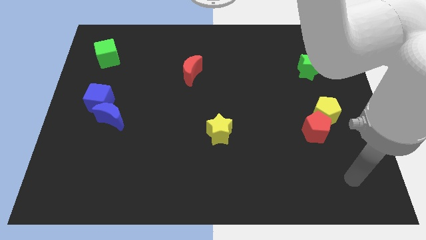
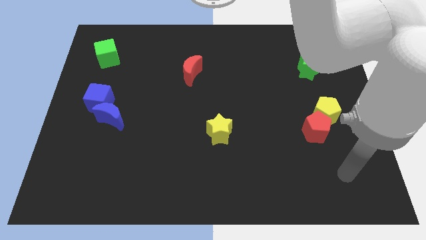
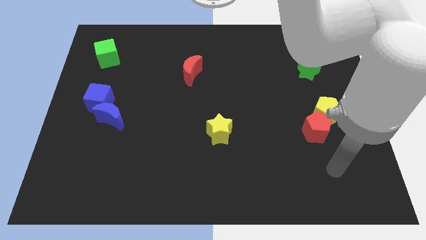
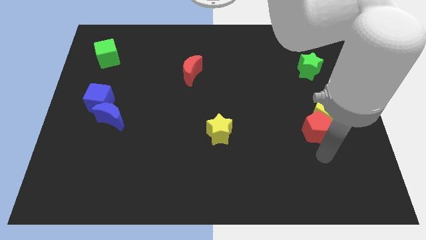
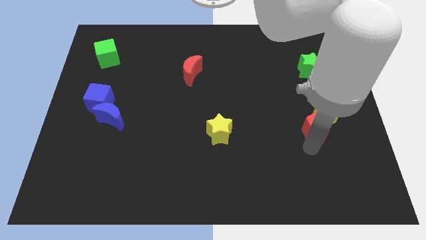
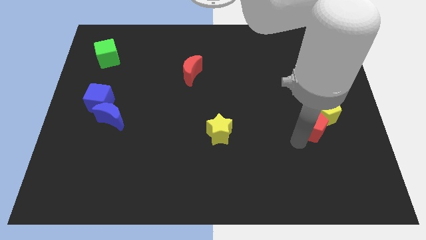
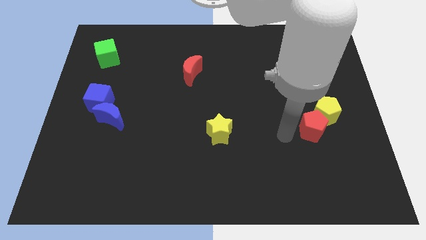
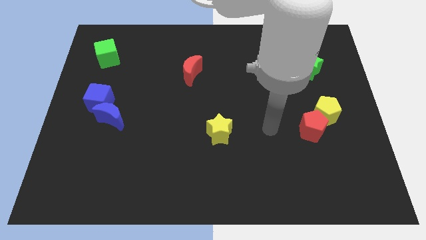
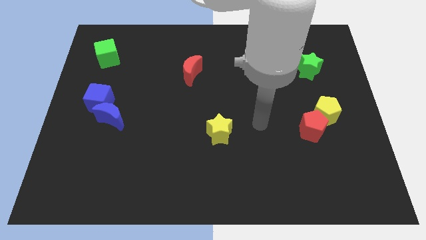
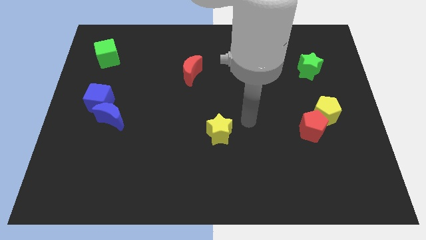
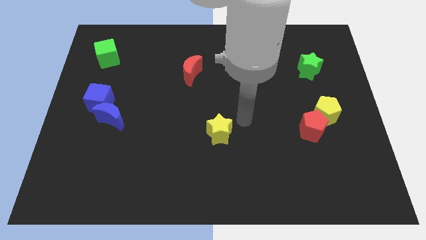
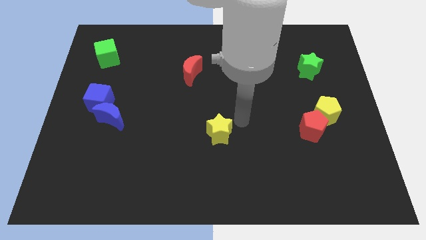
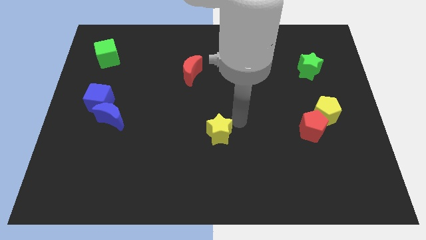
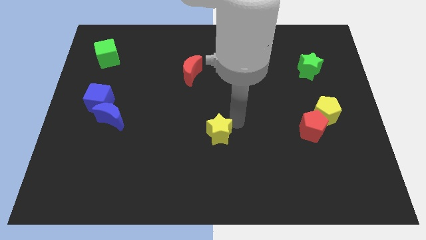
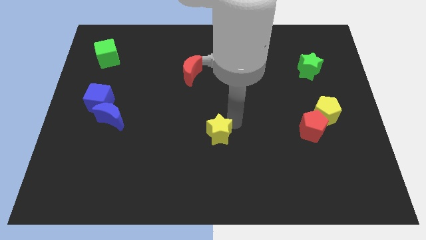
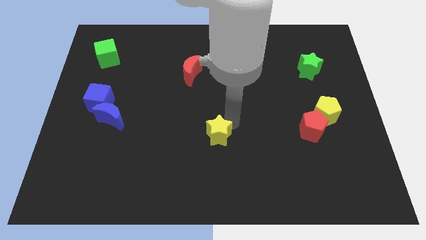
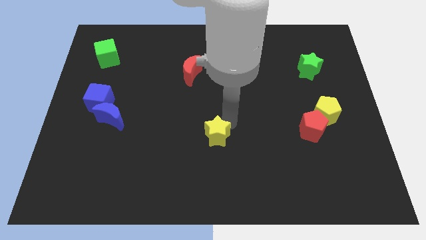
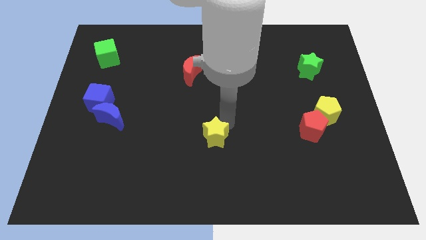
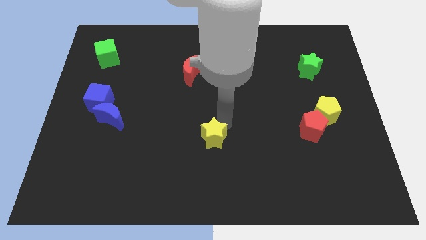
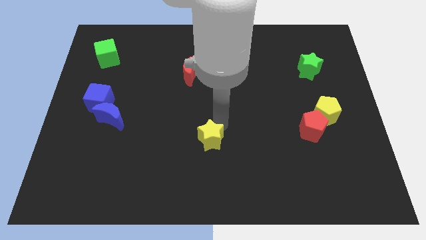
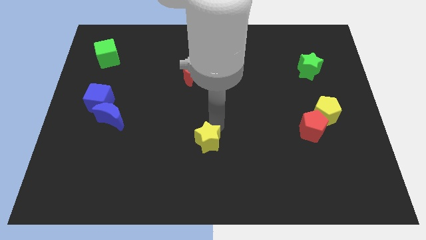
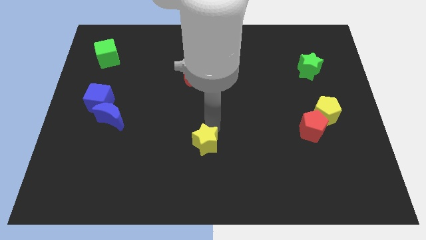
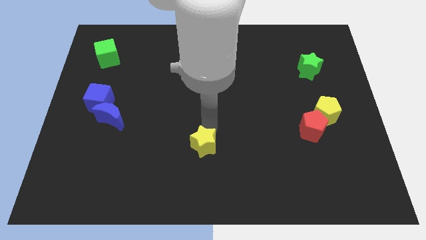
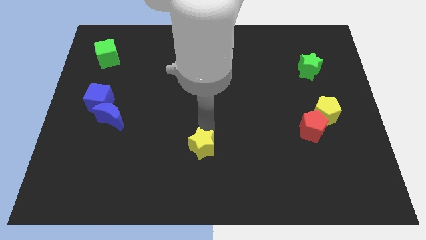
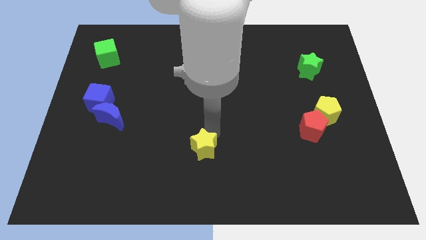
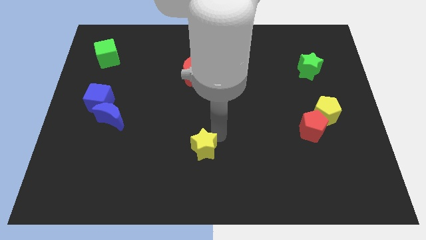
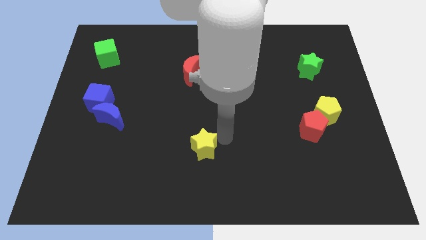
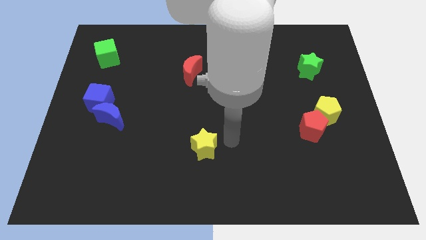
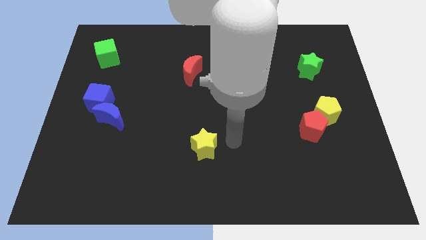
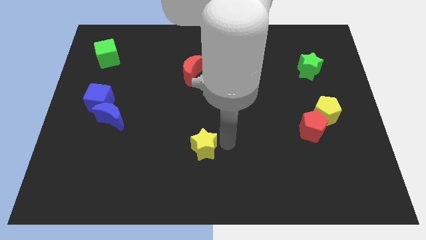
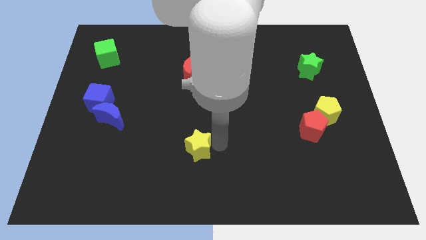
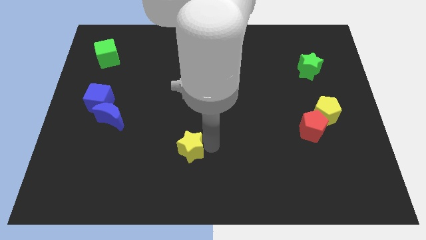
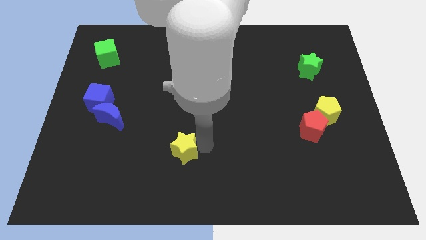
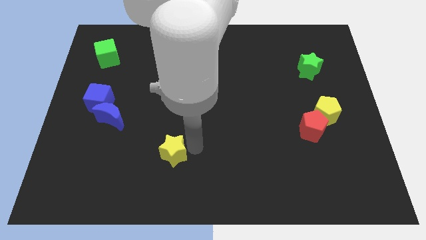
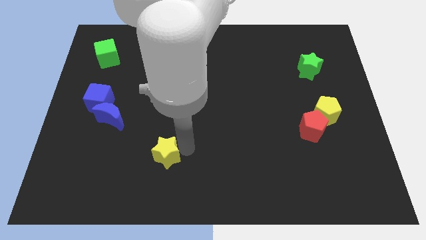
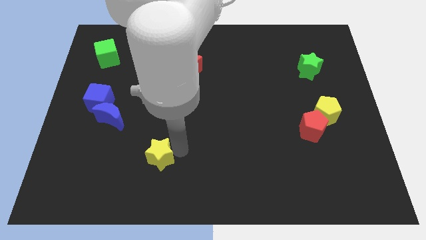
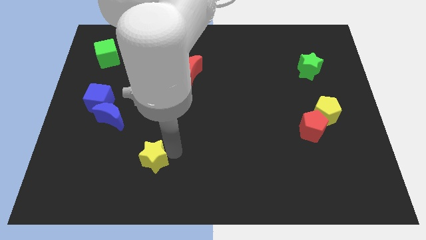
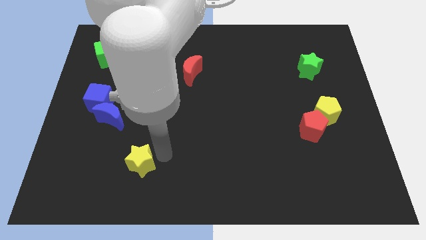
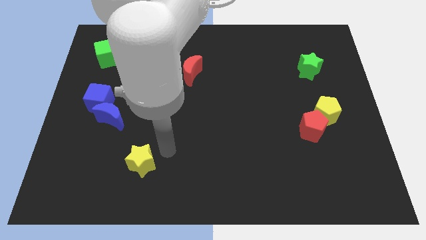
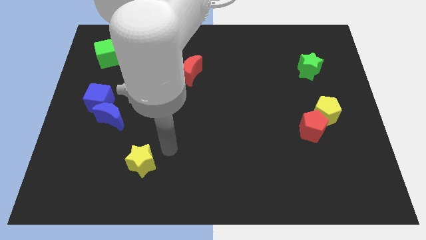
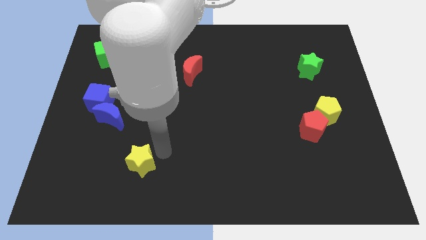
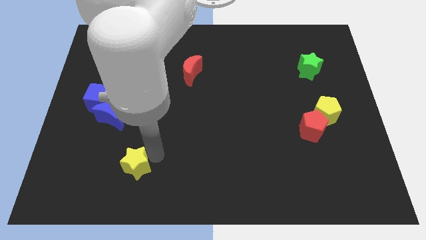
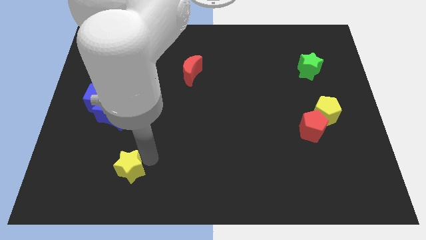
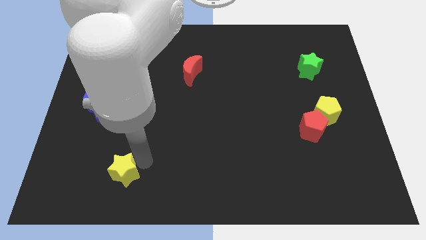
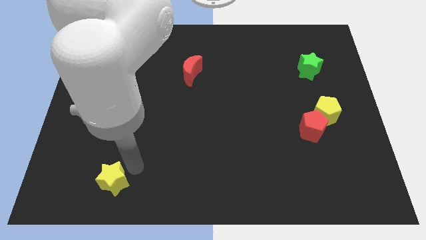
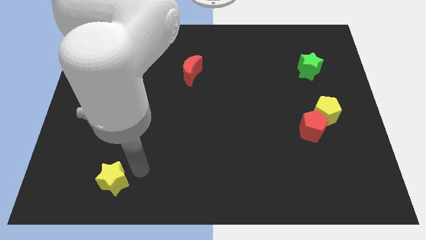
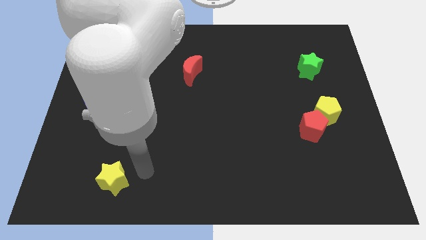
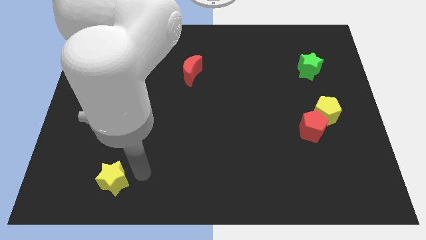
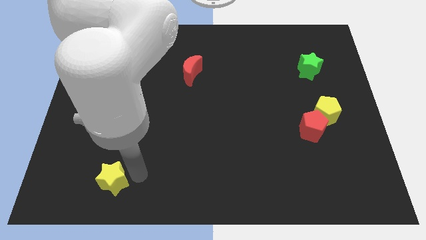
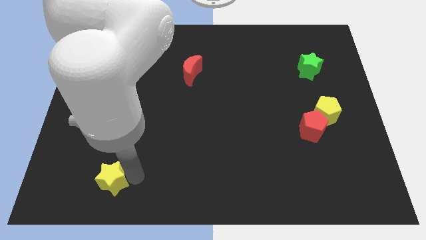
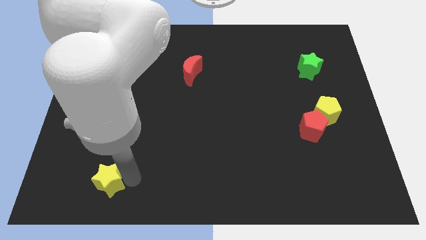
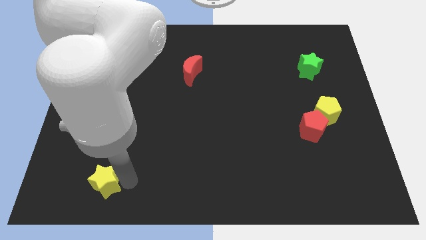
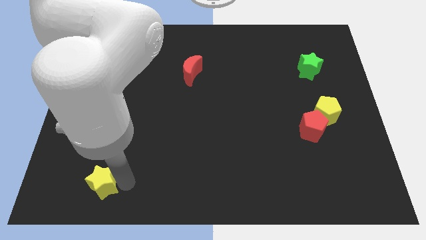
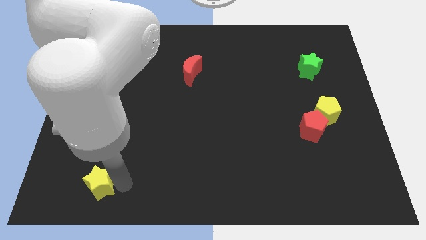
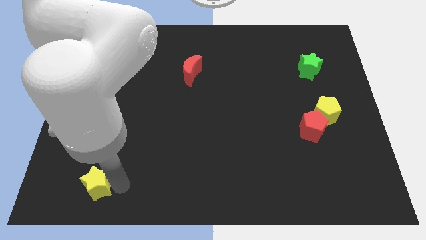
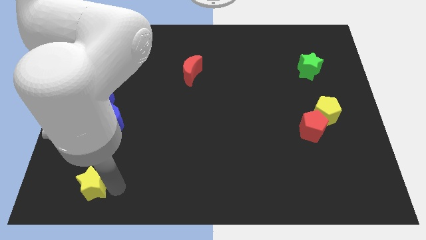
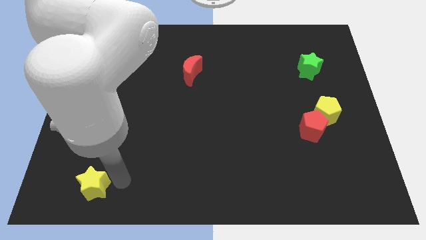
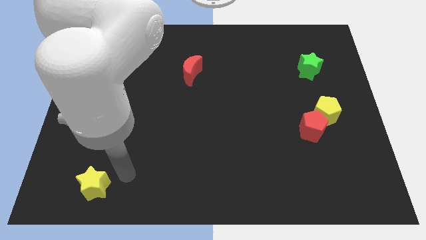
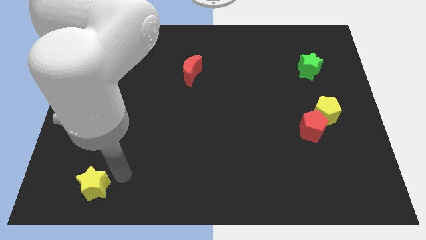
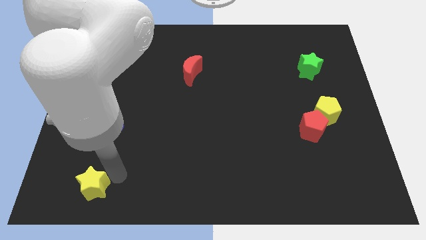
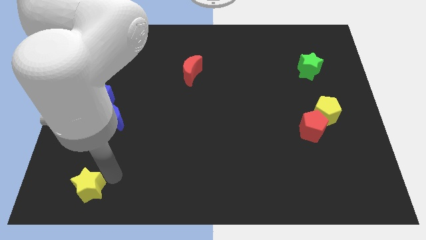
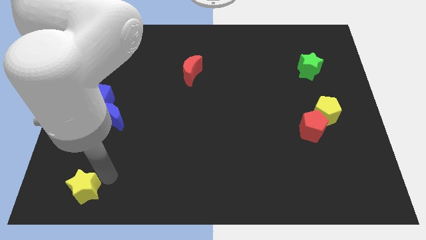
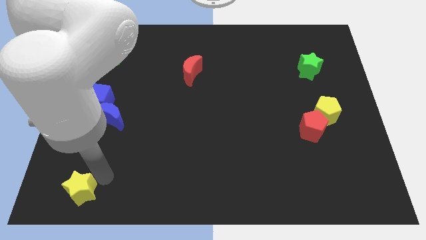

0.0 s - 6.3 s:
push the yellow star to the bottom left of the board
